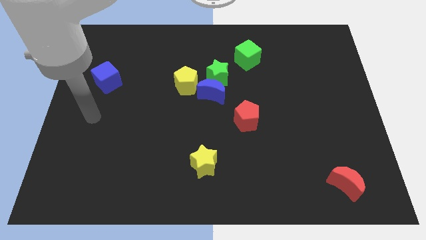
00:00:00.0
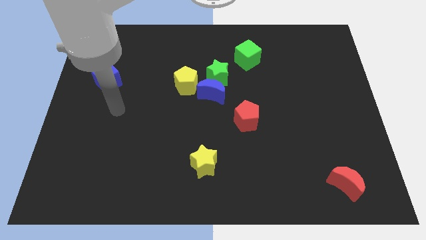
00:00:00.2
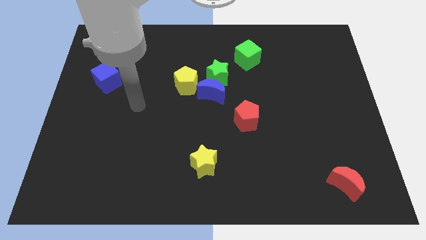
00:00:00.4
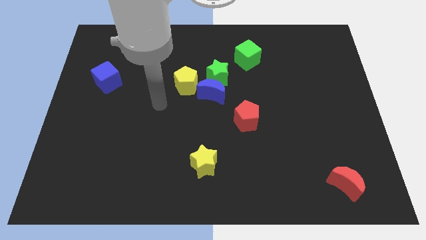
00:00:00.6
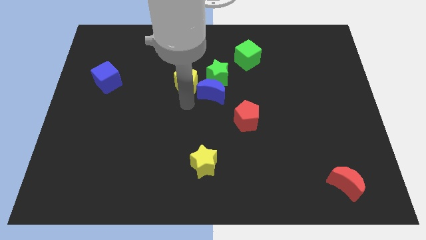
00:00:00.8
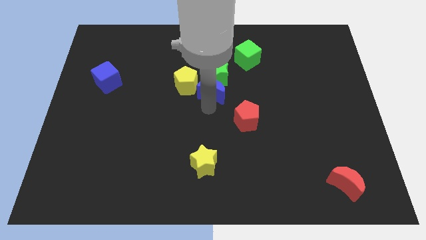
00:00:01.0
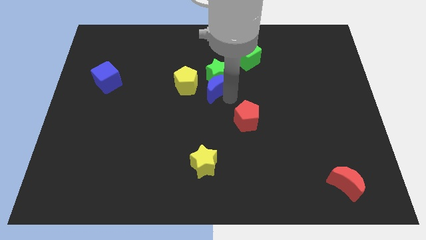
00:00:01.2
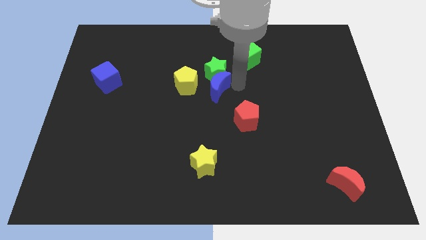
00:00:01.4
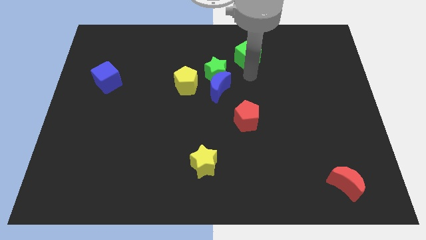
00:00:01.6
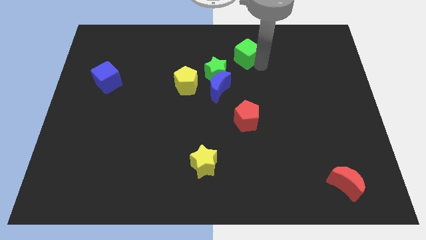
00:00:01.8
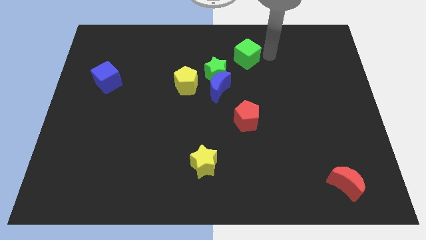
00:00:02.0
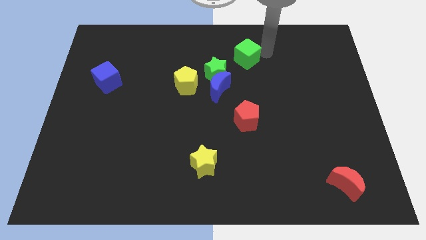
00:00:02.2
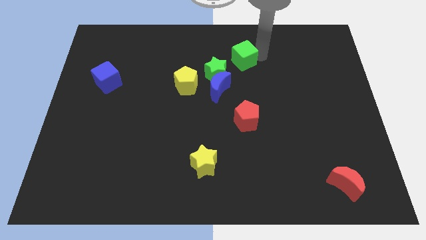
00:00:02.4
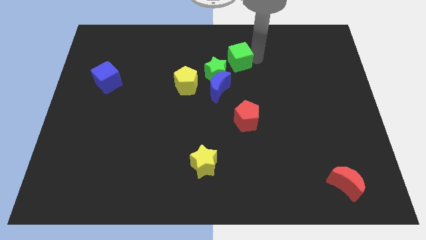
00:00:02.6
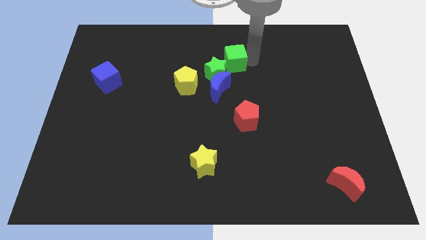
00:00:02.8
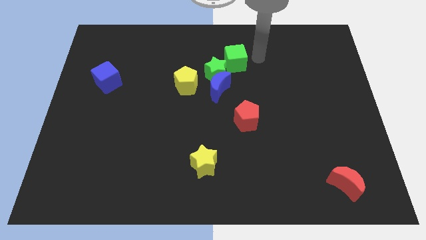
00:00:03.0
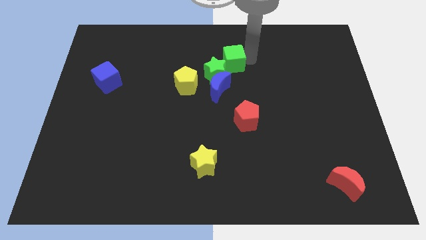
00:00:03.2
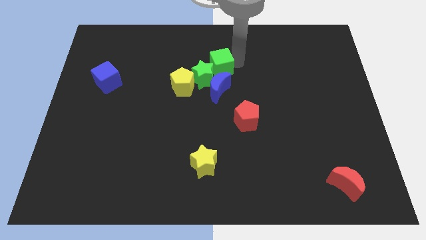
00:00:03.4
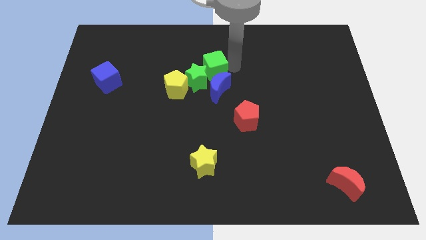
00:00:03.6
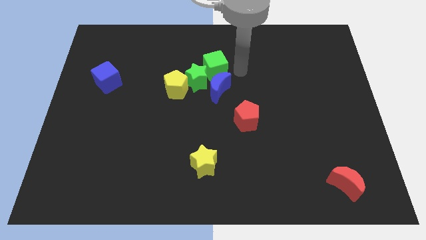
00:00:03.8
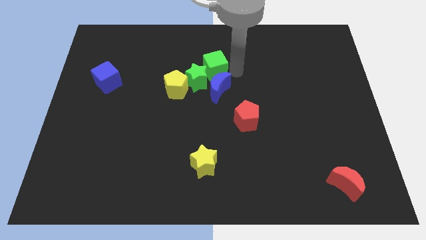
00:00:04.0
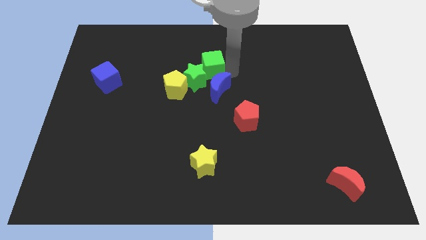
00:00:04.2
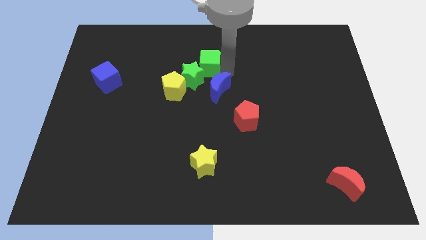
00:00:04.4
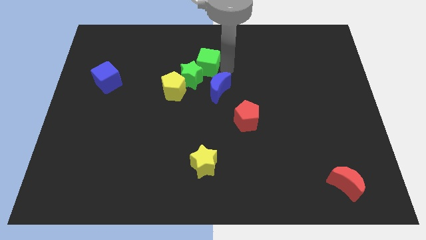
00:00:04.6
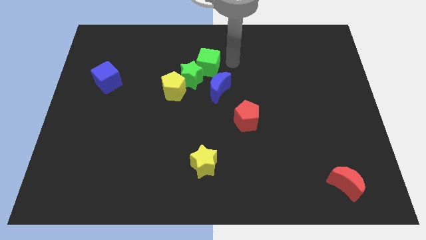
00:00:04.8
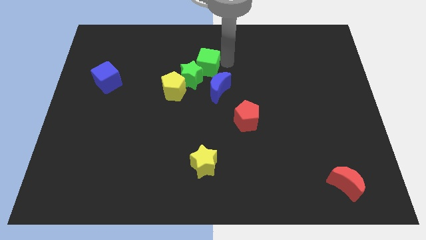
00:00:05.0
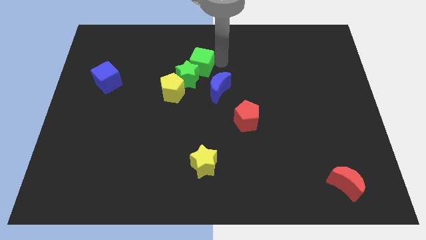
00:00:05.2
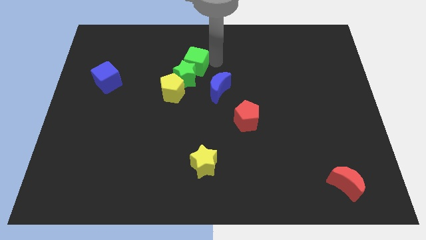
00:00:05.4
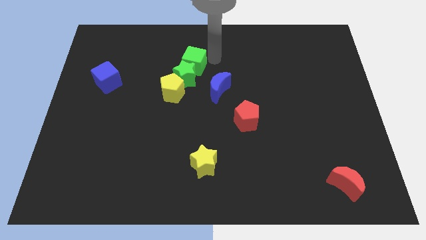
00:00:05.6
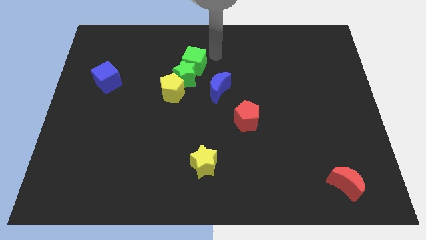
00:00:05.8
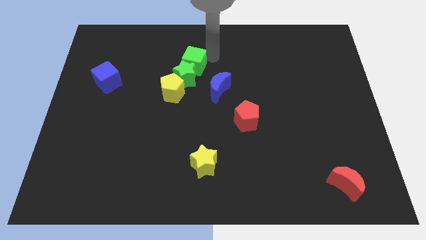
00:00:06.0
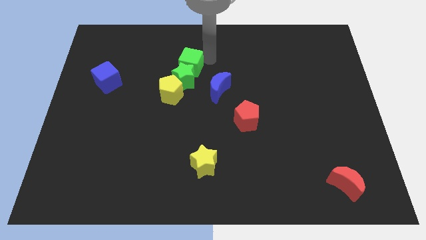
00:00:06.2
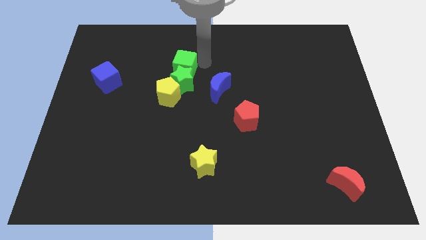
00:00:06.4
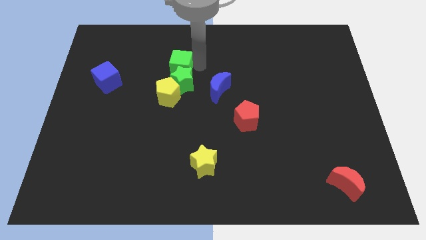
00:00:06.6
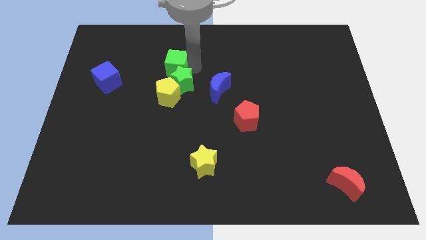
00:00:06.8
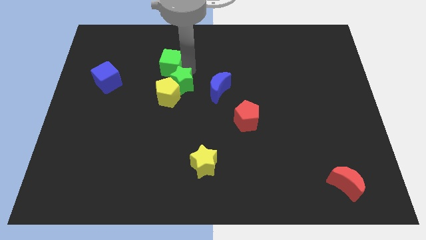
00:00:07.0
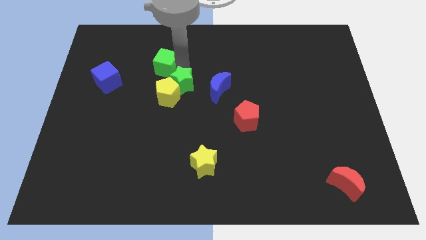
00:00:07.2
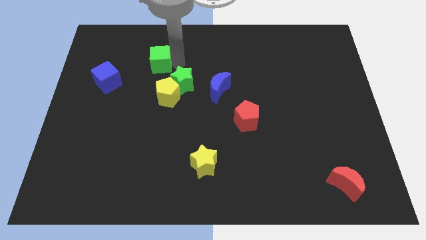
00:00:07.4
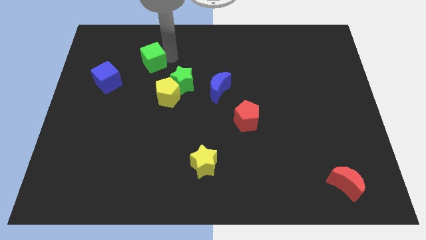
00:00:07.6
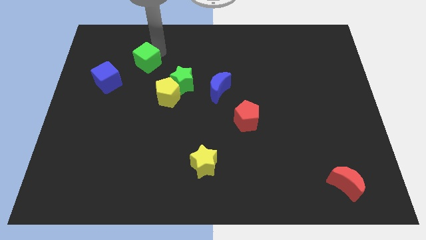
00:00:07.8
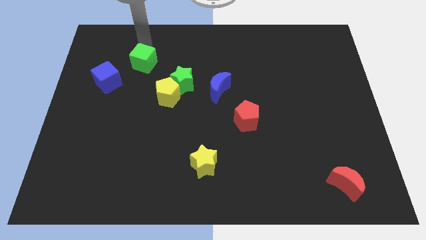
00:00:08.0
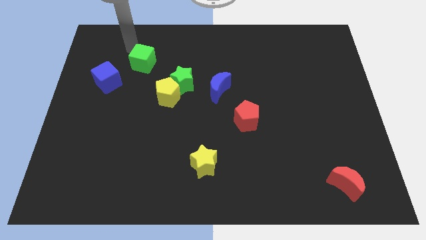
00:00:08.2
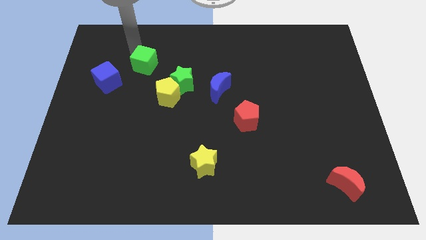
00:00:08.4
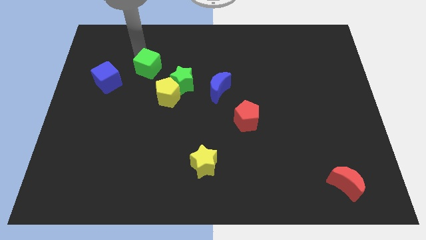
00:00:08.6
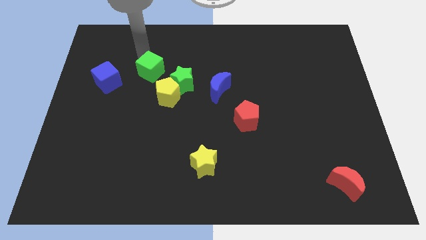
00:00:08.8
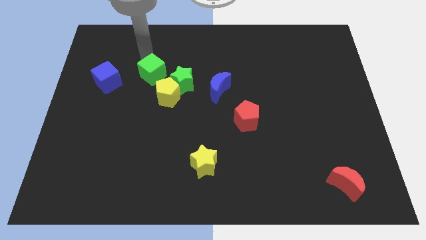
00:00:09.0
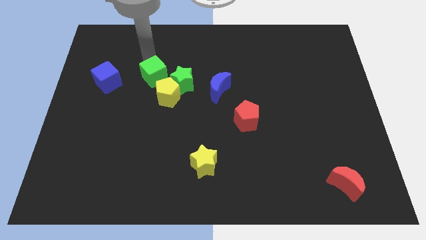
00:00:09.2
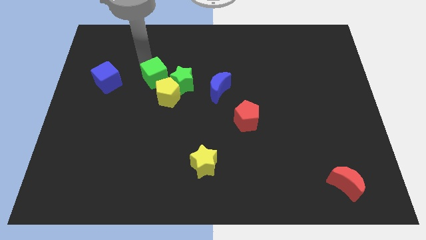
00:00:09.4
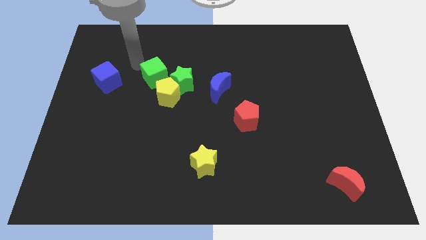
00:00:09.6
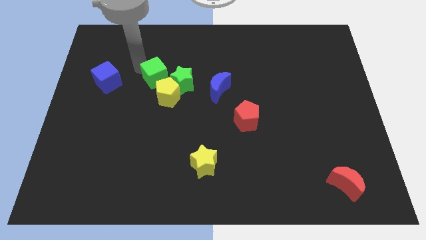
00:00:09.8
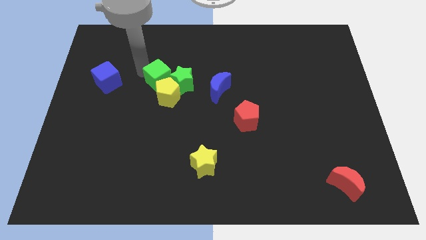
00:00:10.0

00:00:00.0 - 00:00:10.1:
move the green cube just left of the blue moon

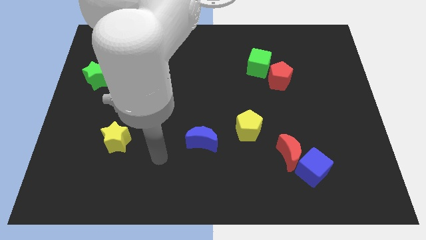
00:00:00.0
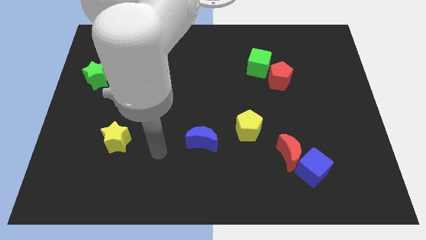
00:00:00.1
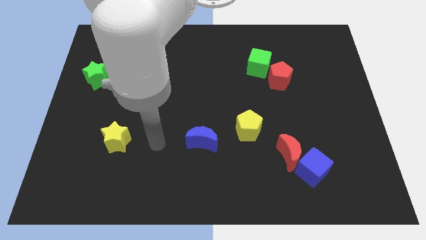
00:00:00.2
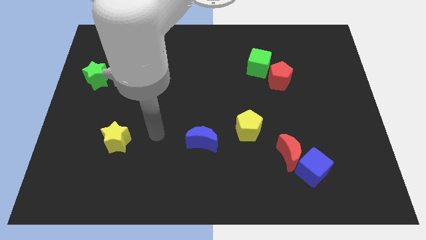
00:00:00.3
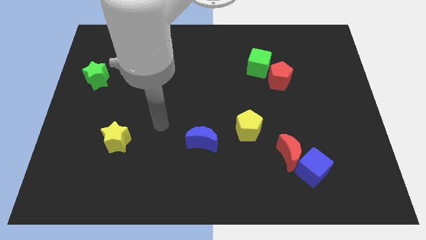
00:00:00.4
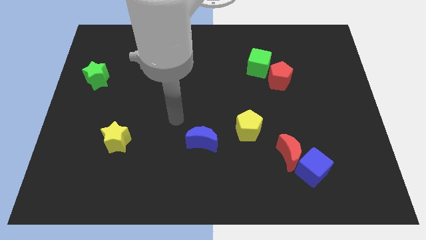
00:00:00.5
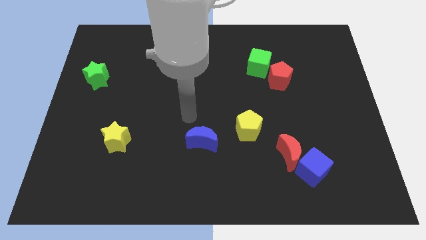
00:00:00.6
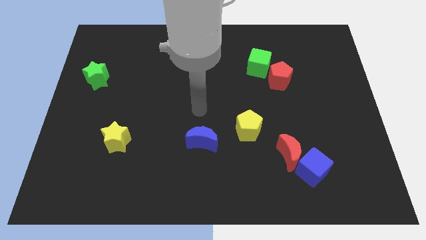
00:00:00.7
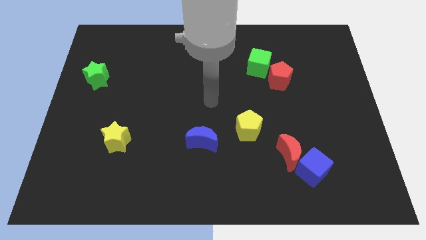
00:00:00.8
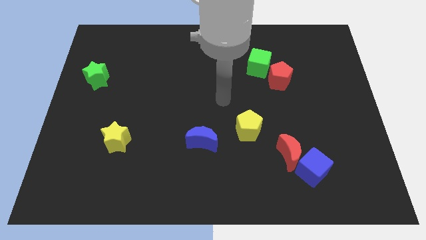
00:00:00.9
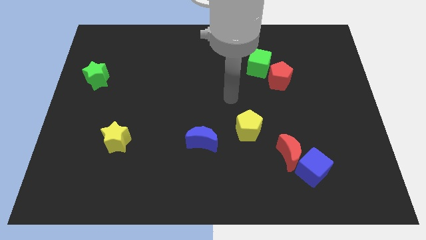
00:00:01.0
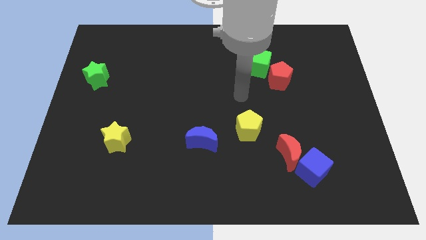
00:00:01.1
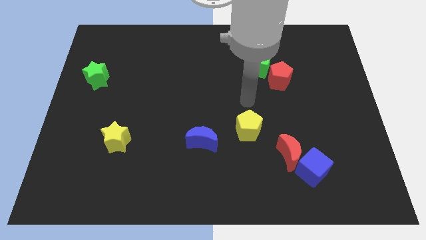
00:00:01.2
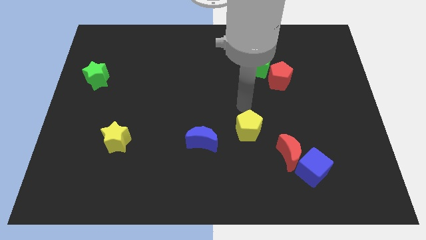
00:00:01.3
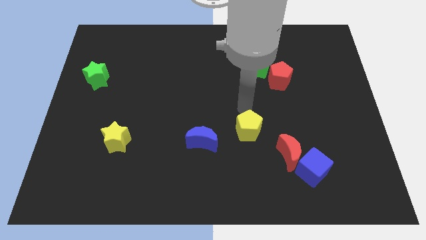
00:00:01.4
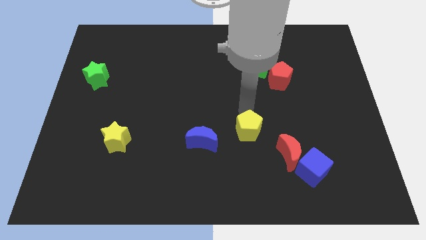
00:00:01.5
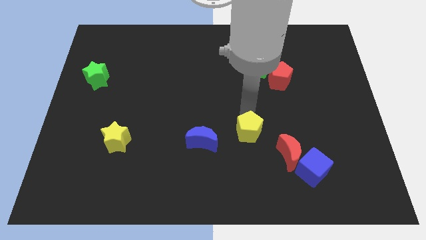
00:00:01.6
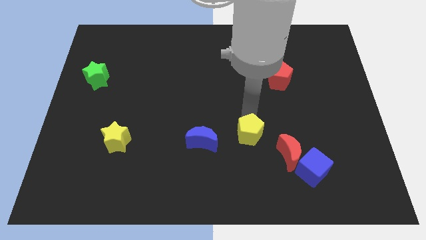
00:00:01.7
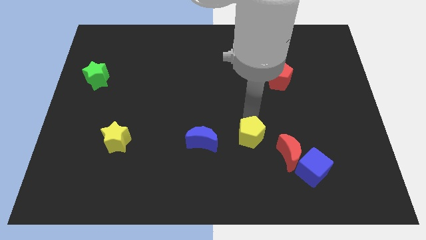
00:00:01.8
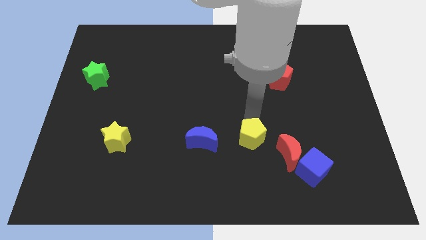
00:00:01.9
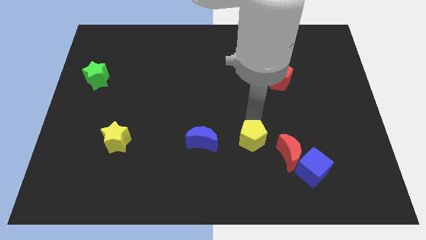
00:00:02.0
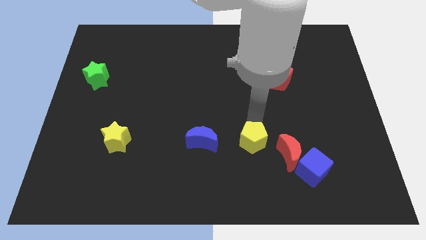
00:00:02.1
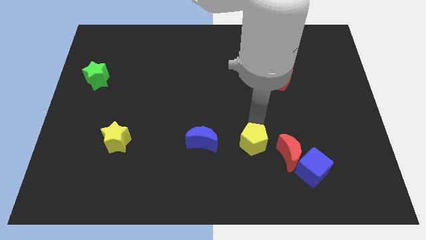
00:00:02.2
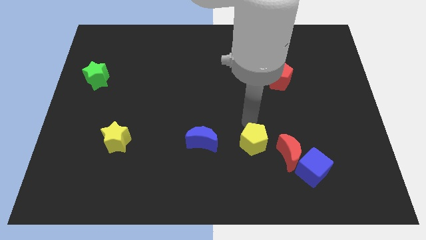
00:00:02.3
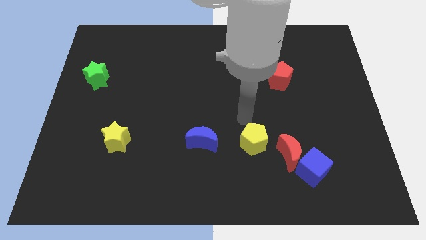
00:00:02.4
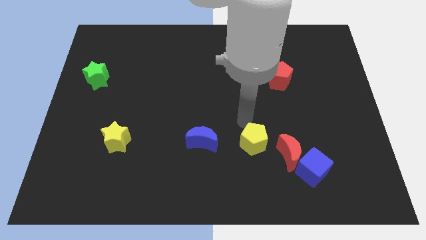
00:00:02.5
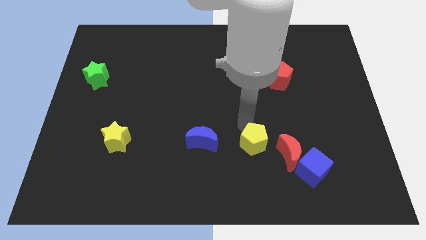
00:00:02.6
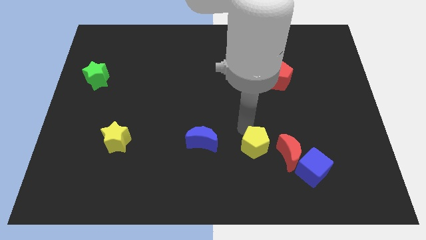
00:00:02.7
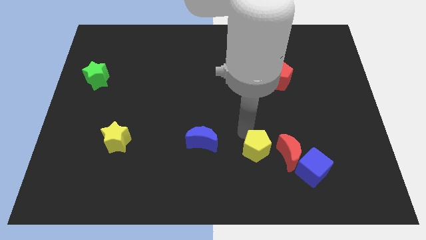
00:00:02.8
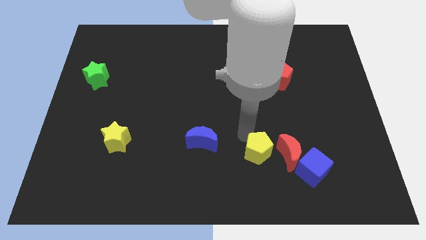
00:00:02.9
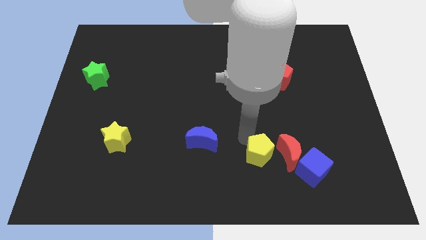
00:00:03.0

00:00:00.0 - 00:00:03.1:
push the yellow pentagon to the bottom left of the red moon
